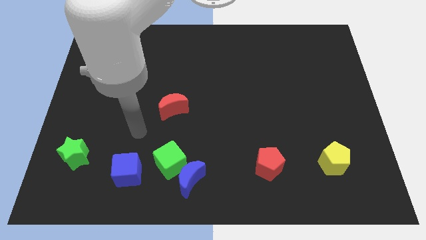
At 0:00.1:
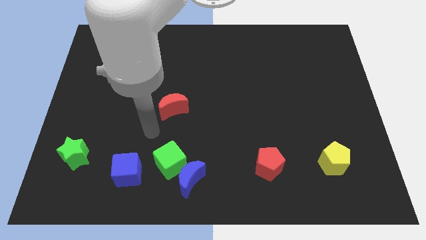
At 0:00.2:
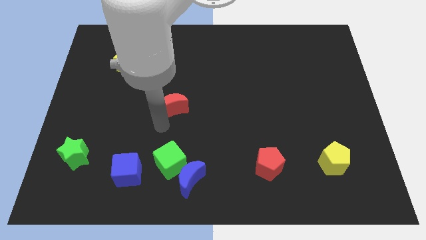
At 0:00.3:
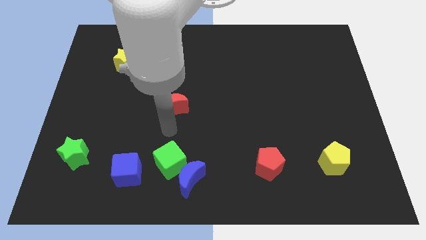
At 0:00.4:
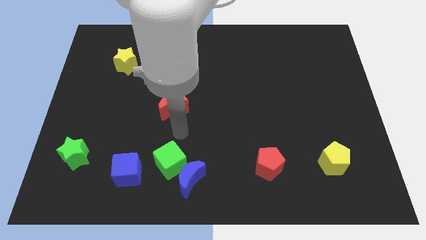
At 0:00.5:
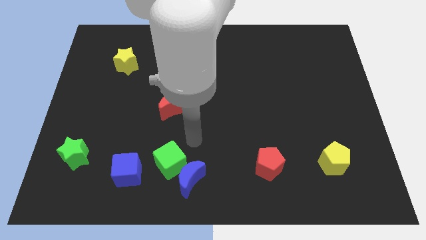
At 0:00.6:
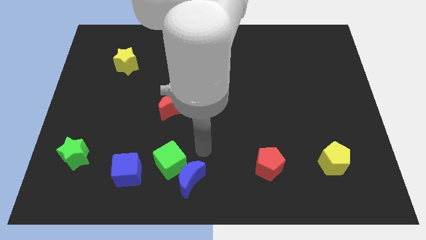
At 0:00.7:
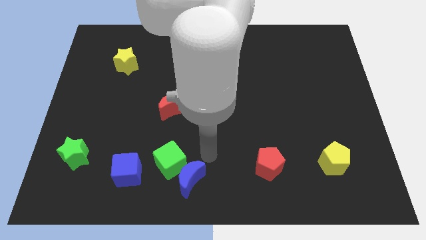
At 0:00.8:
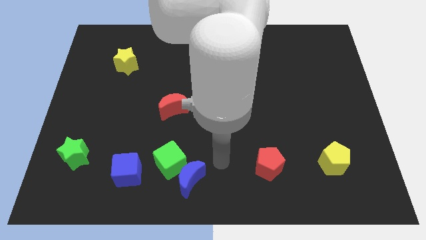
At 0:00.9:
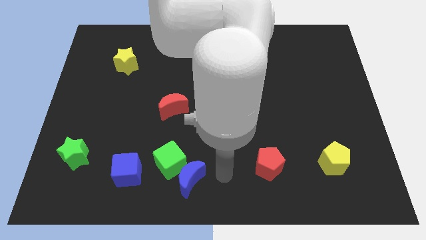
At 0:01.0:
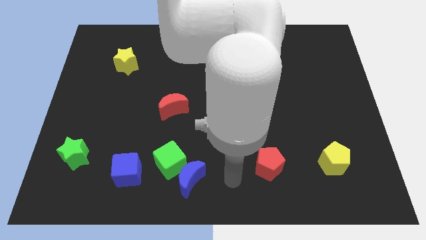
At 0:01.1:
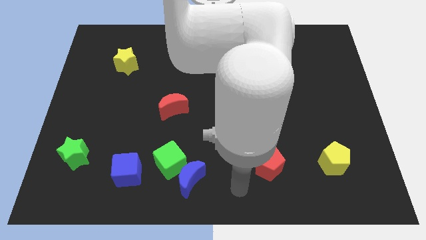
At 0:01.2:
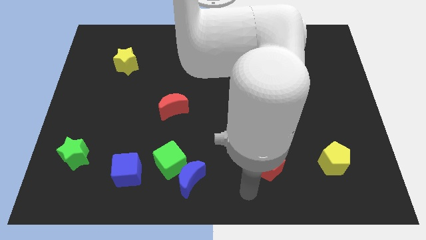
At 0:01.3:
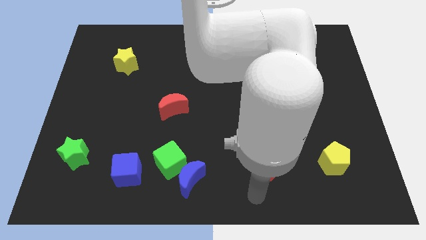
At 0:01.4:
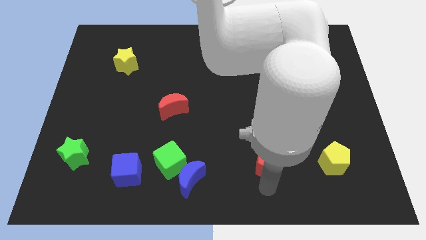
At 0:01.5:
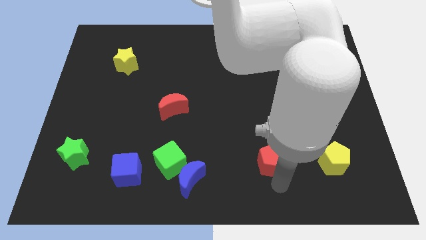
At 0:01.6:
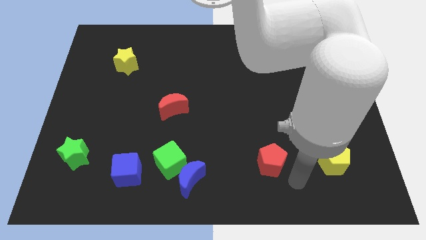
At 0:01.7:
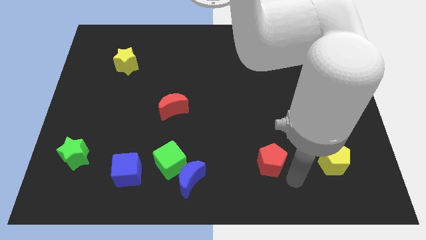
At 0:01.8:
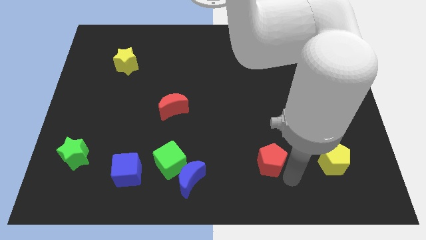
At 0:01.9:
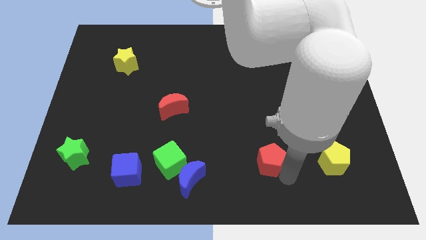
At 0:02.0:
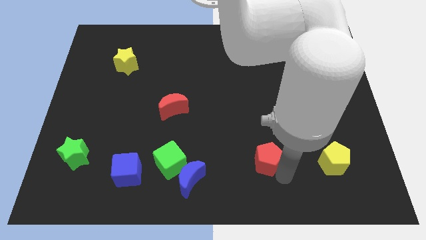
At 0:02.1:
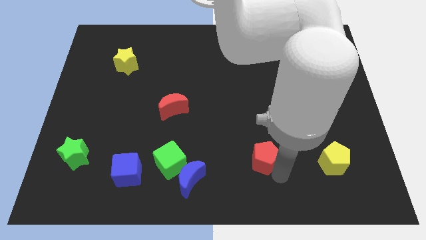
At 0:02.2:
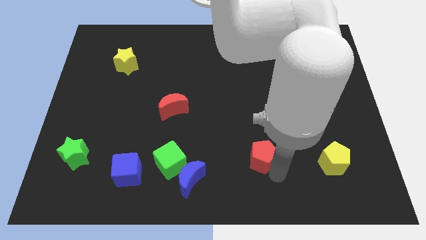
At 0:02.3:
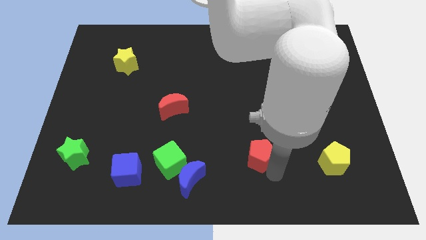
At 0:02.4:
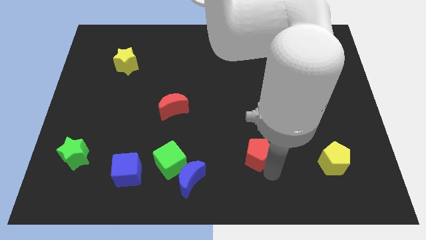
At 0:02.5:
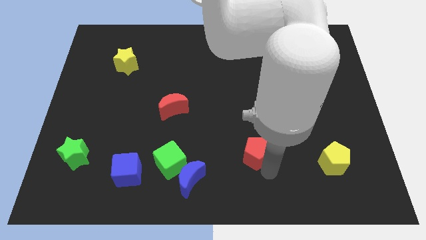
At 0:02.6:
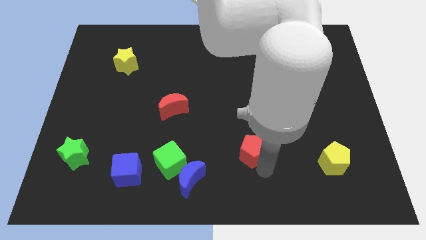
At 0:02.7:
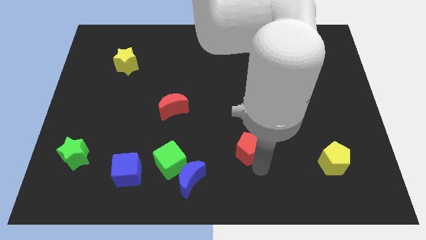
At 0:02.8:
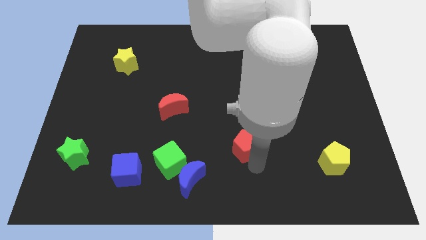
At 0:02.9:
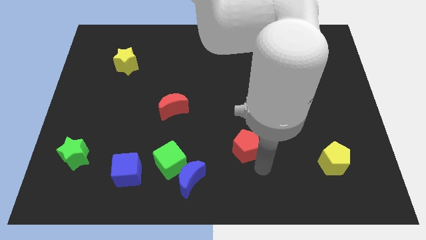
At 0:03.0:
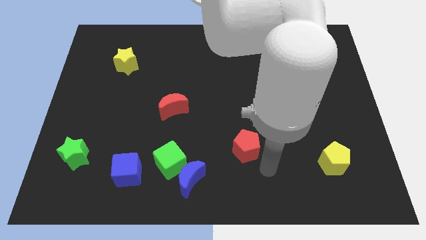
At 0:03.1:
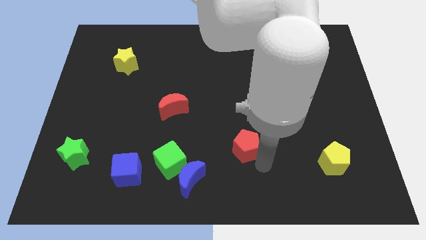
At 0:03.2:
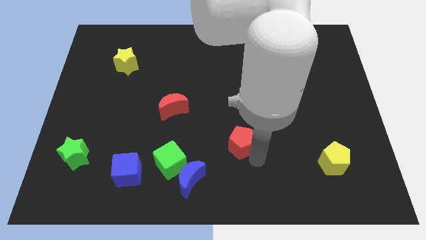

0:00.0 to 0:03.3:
push the red pentagon slightly up and left

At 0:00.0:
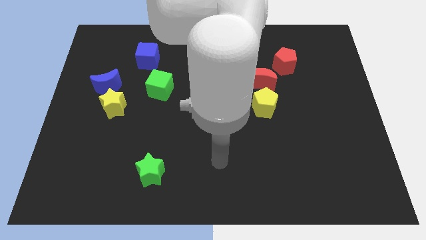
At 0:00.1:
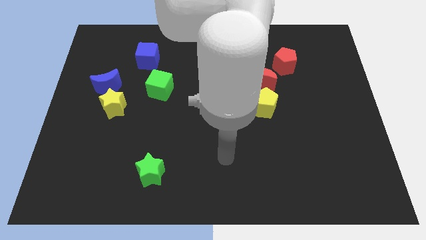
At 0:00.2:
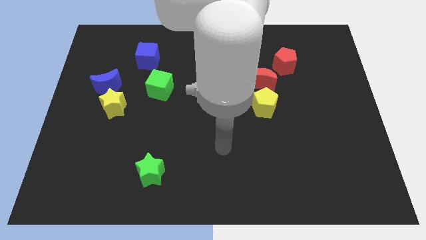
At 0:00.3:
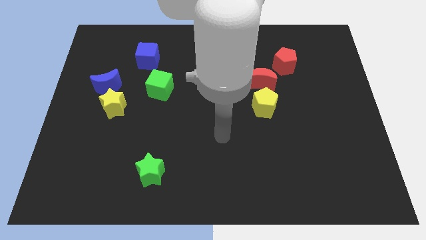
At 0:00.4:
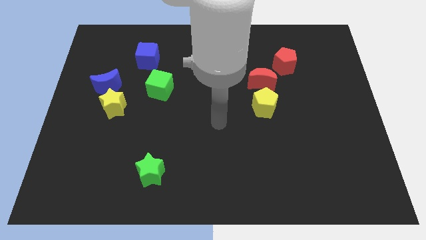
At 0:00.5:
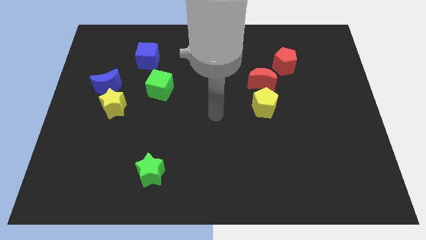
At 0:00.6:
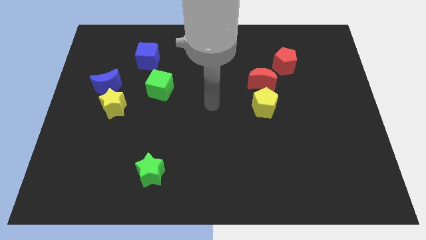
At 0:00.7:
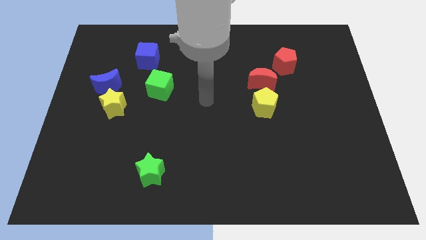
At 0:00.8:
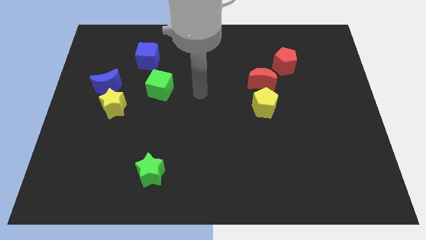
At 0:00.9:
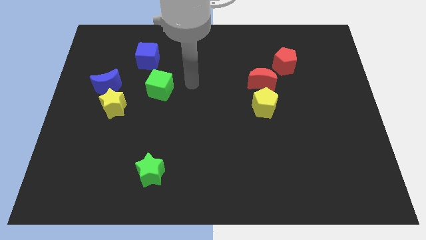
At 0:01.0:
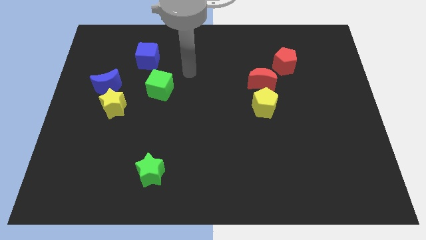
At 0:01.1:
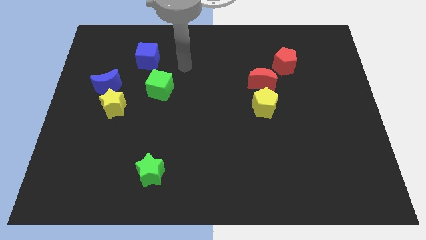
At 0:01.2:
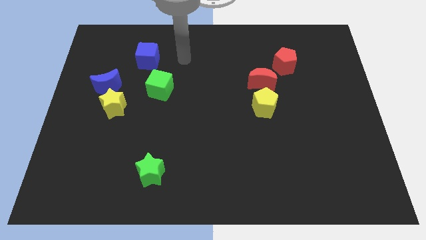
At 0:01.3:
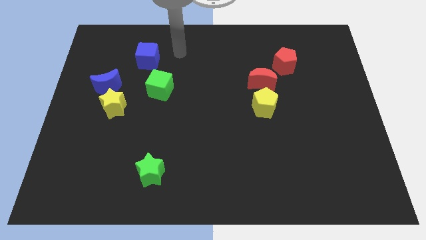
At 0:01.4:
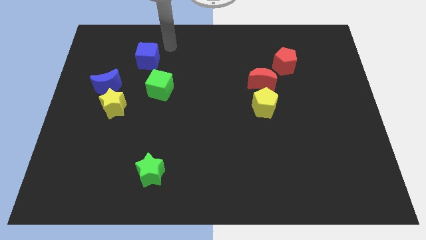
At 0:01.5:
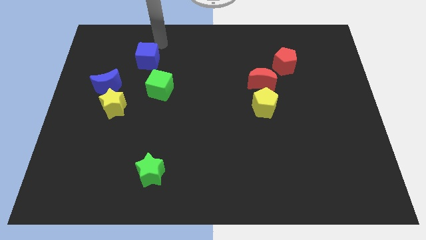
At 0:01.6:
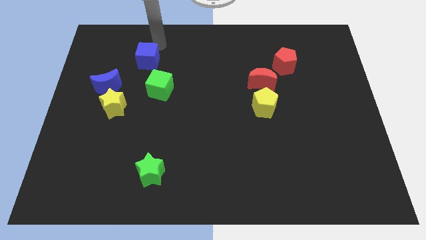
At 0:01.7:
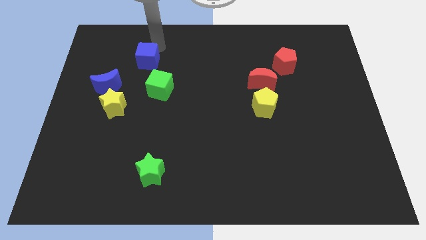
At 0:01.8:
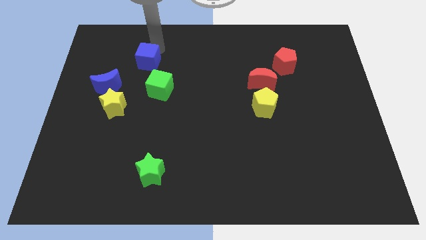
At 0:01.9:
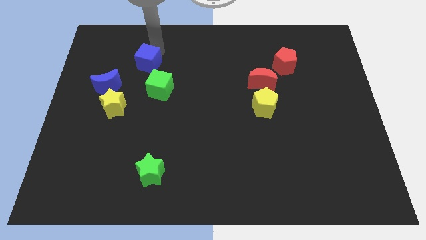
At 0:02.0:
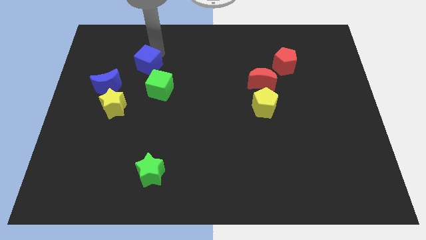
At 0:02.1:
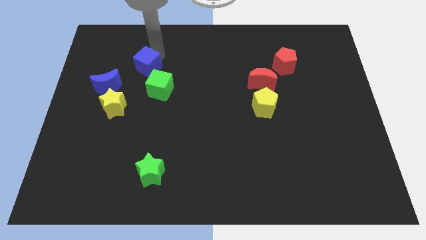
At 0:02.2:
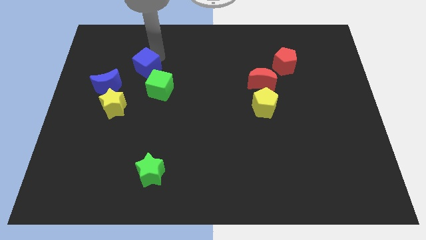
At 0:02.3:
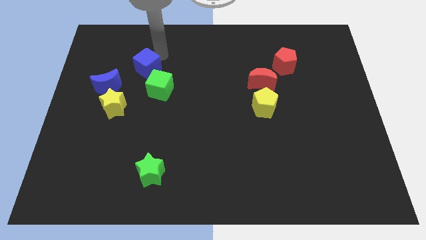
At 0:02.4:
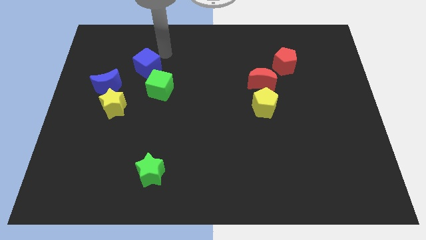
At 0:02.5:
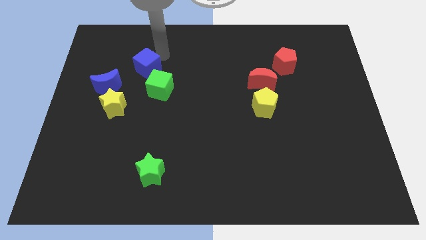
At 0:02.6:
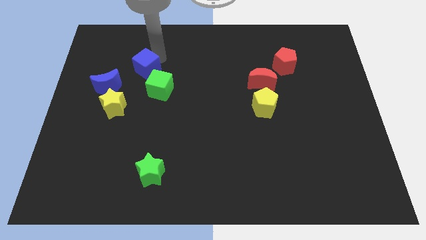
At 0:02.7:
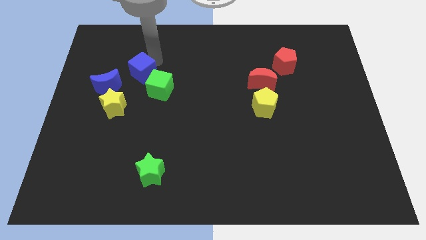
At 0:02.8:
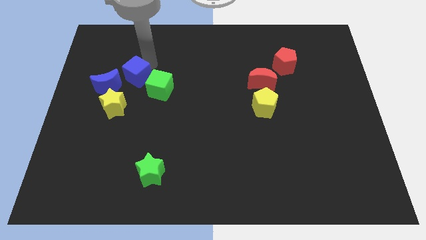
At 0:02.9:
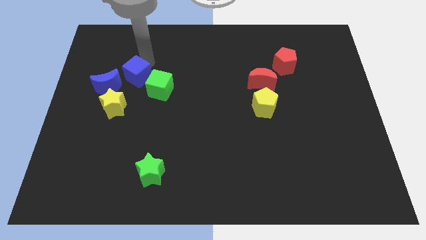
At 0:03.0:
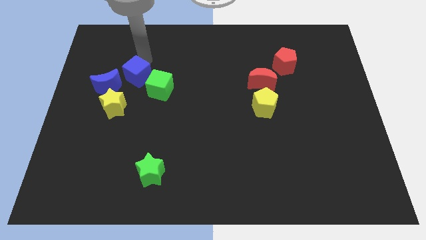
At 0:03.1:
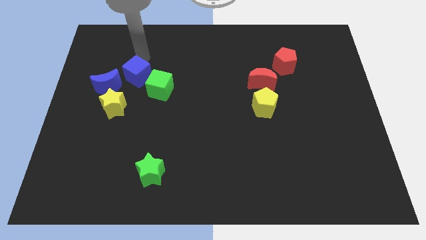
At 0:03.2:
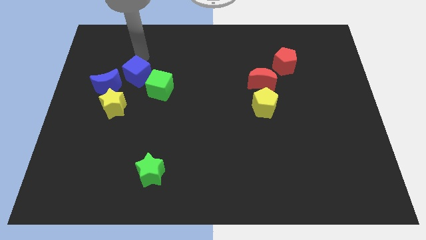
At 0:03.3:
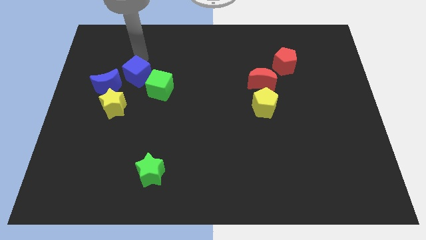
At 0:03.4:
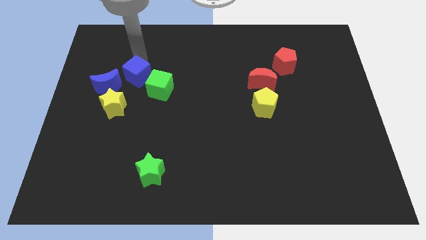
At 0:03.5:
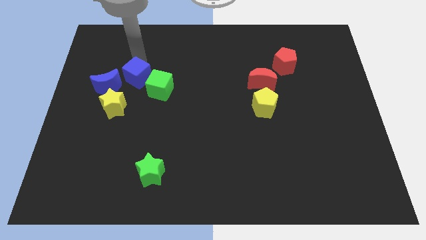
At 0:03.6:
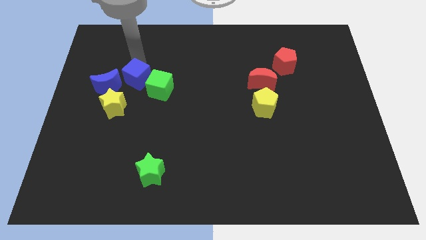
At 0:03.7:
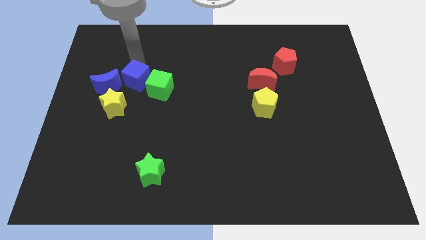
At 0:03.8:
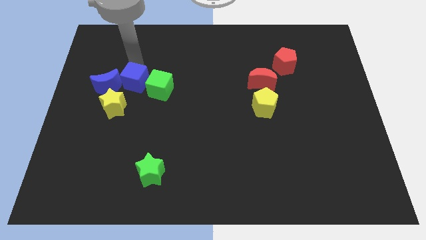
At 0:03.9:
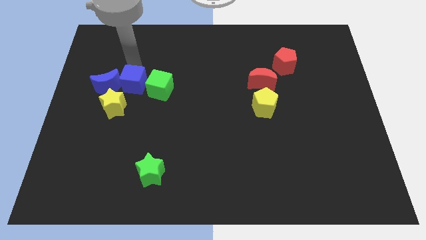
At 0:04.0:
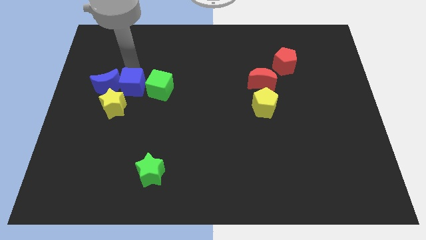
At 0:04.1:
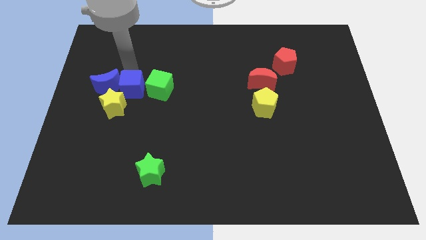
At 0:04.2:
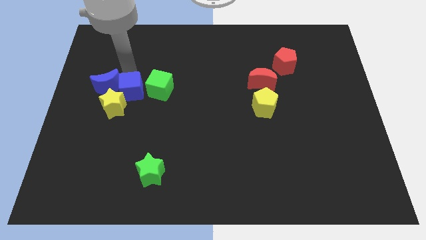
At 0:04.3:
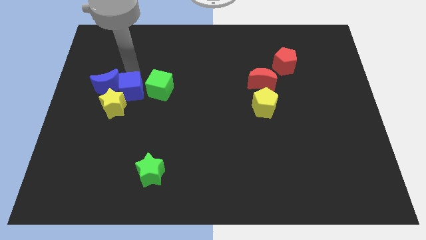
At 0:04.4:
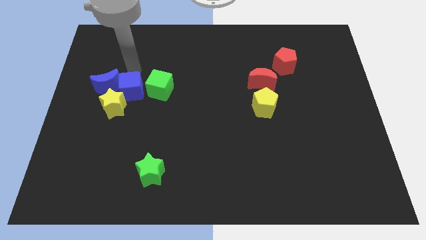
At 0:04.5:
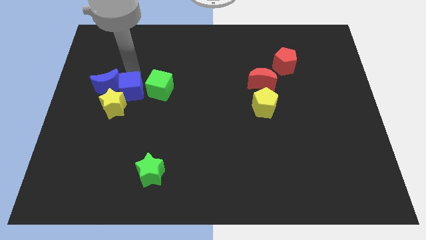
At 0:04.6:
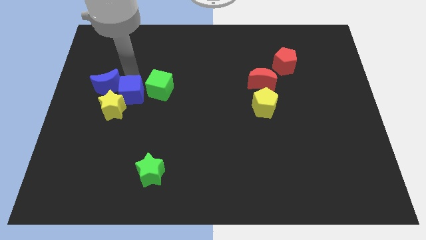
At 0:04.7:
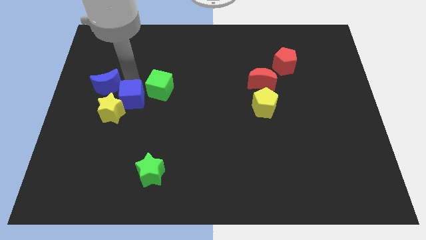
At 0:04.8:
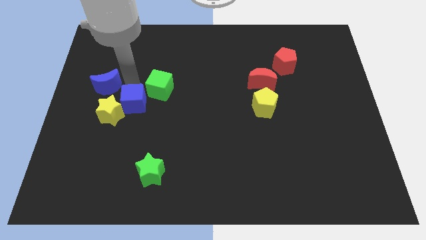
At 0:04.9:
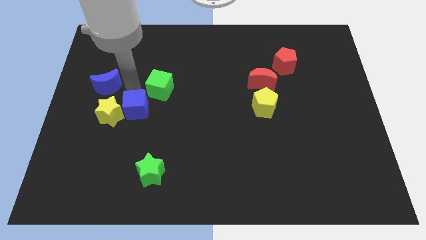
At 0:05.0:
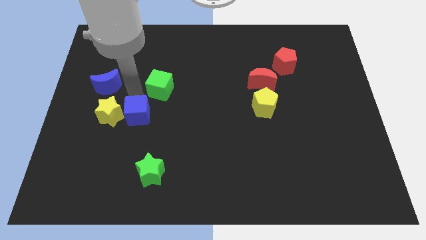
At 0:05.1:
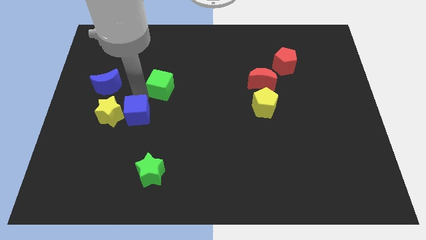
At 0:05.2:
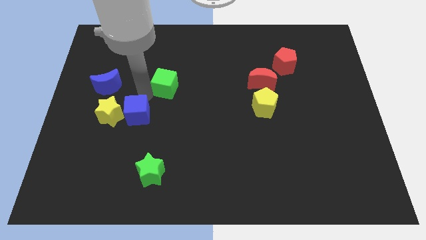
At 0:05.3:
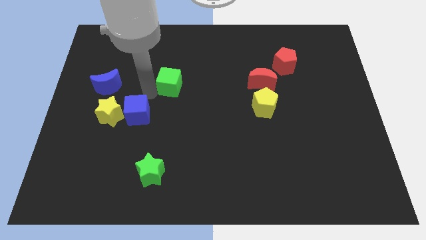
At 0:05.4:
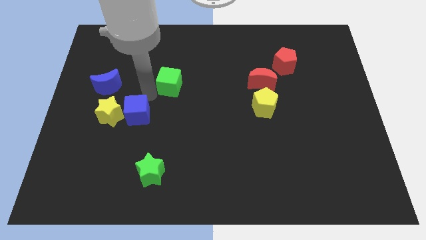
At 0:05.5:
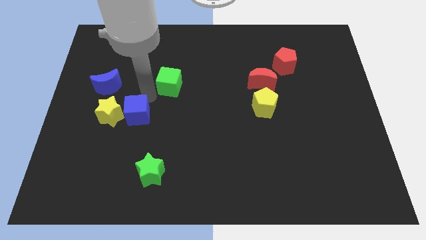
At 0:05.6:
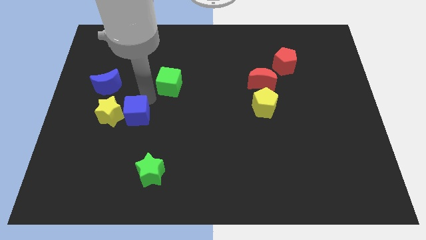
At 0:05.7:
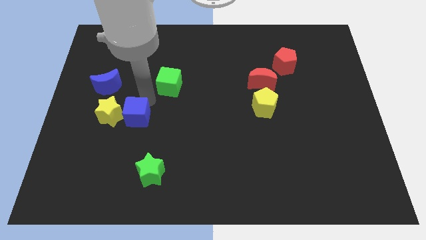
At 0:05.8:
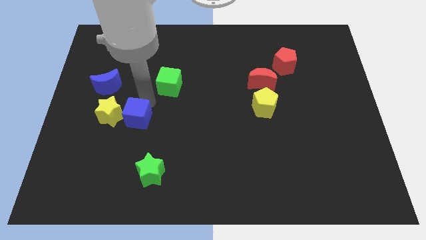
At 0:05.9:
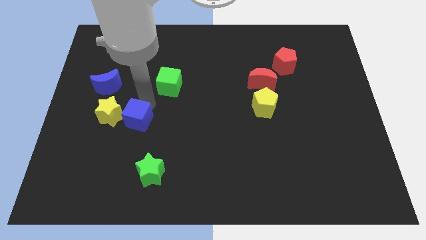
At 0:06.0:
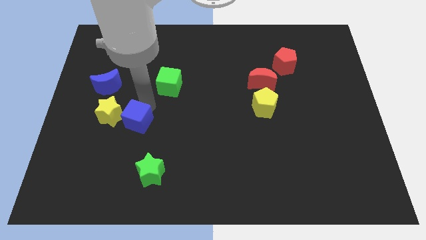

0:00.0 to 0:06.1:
slide the blue cube down
